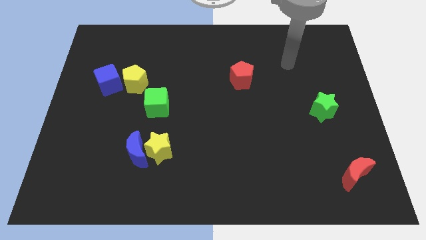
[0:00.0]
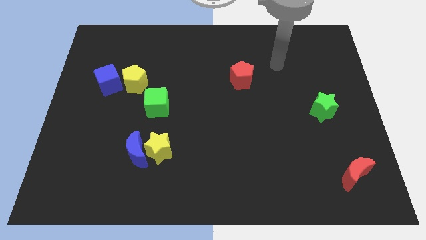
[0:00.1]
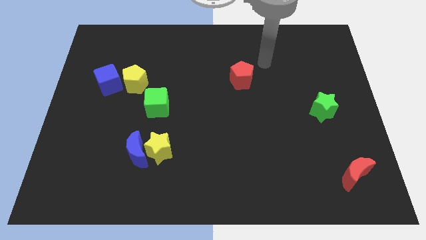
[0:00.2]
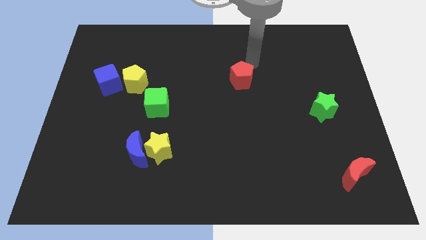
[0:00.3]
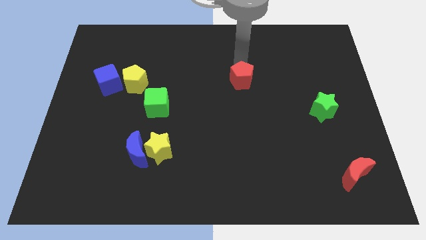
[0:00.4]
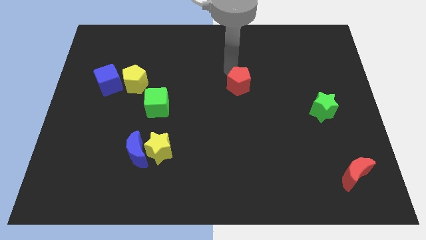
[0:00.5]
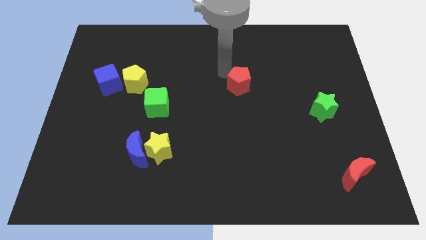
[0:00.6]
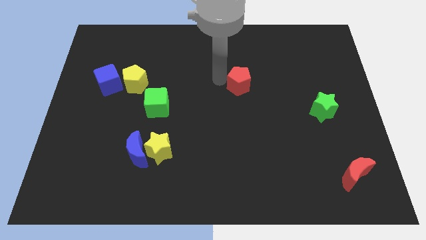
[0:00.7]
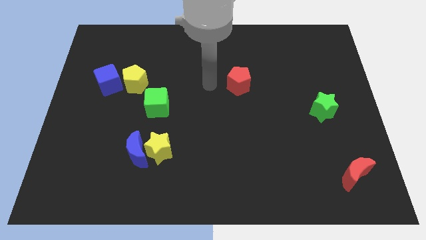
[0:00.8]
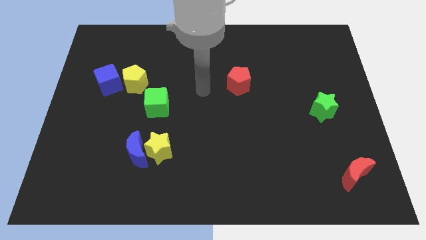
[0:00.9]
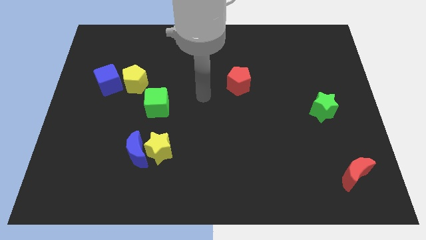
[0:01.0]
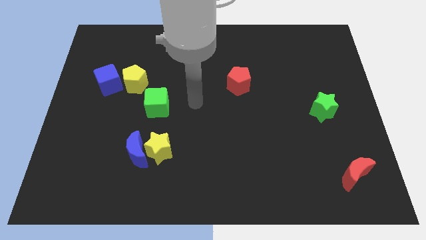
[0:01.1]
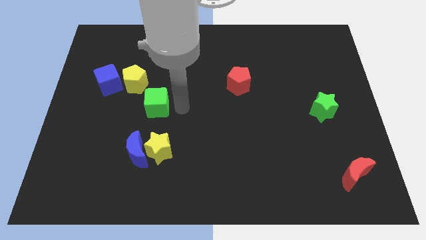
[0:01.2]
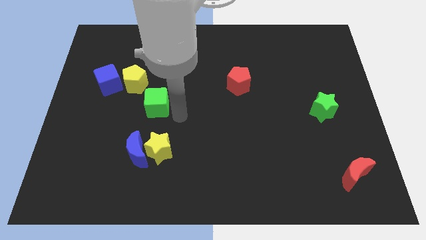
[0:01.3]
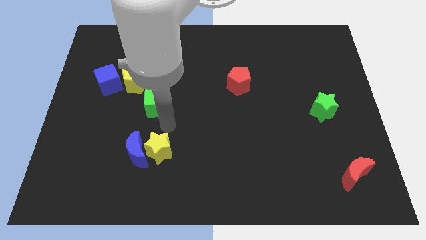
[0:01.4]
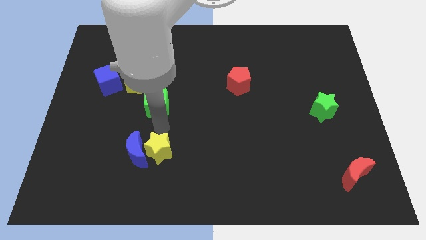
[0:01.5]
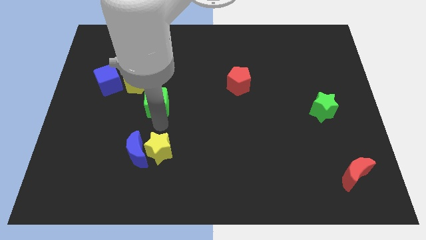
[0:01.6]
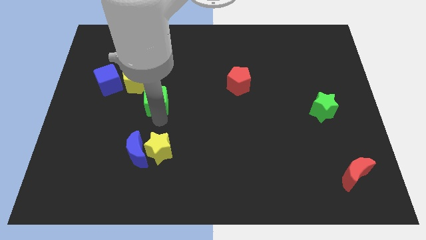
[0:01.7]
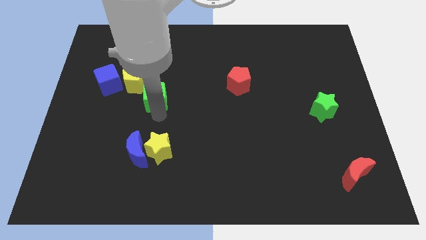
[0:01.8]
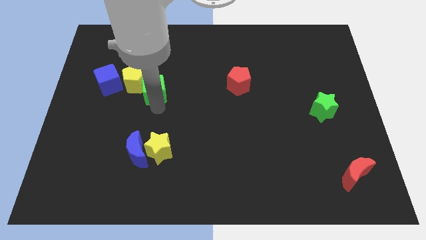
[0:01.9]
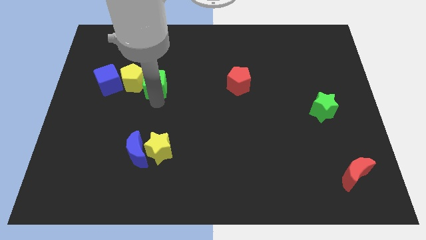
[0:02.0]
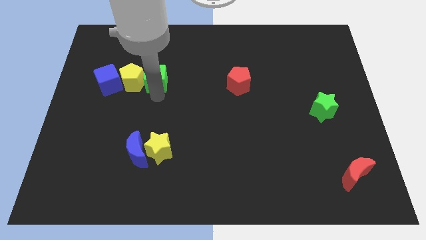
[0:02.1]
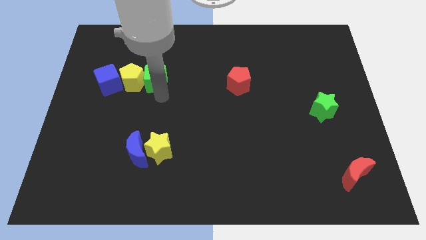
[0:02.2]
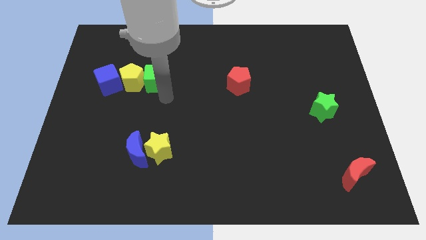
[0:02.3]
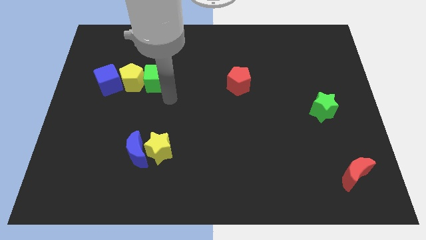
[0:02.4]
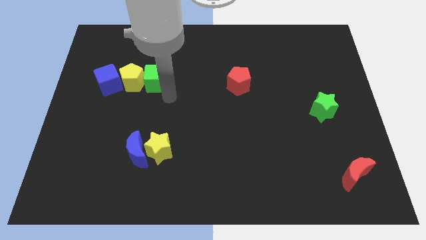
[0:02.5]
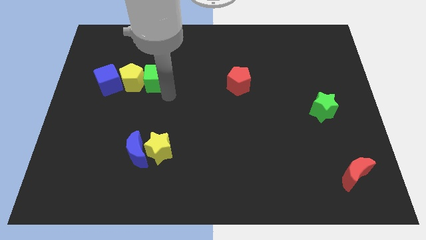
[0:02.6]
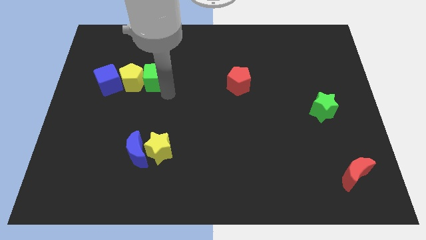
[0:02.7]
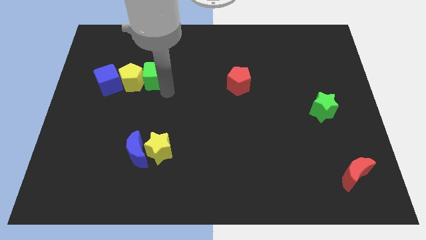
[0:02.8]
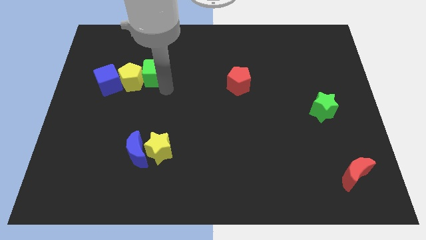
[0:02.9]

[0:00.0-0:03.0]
slightly move the green cube upwards and then left

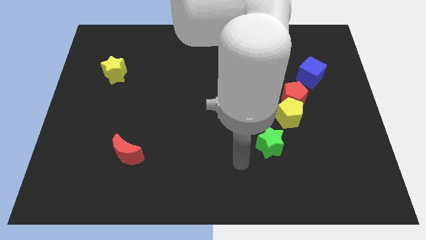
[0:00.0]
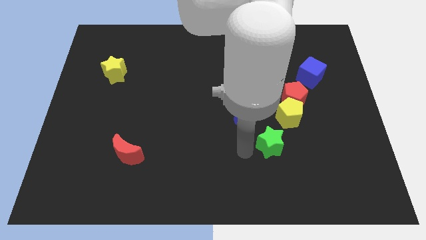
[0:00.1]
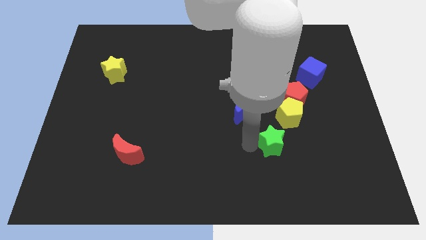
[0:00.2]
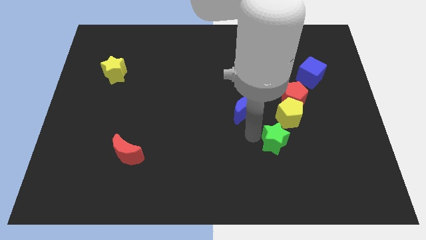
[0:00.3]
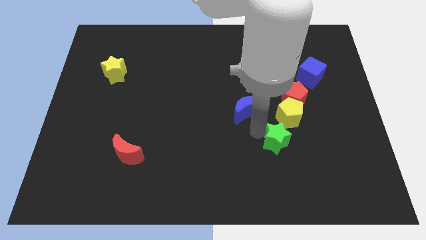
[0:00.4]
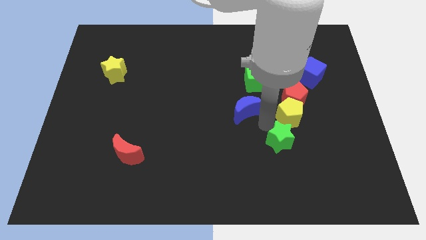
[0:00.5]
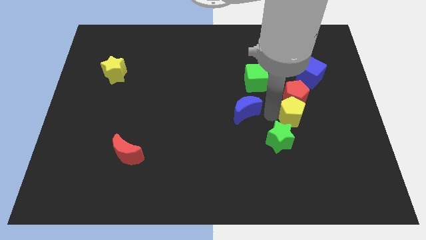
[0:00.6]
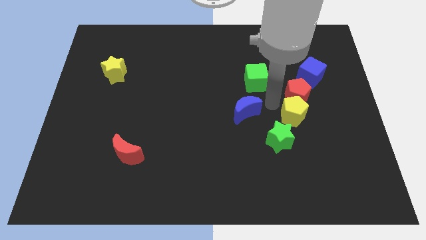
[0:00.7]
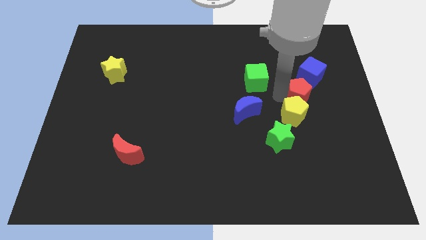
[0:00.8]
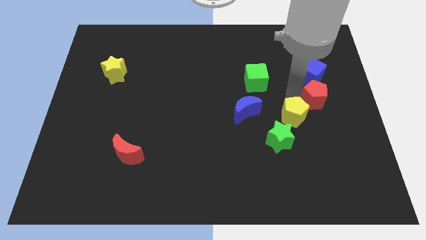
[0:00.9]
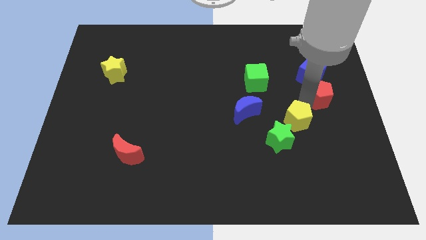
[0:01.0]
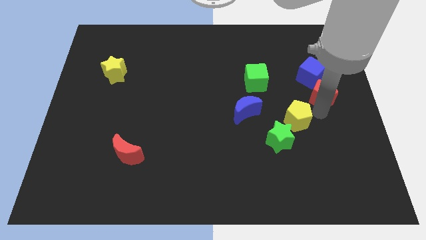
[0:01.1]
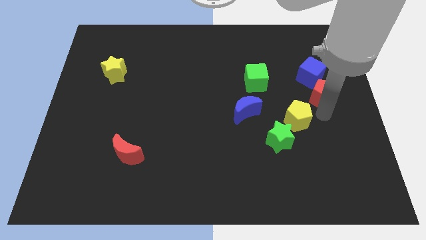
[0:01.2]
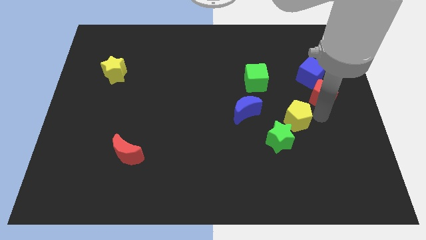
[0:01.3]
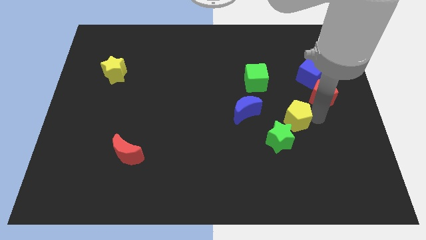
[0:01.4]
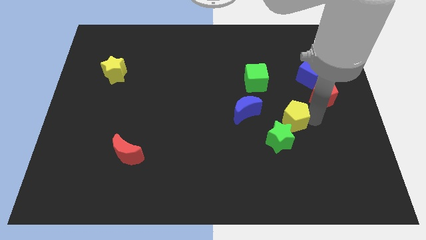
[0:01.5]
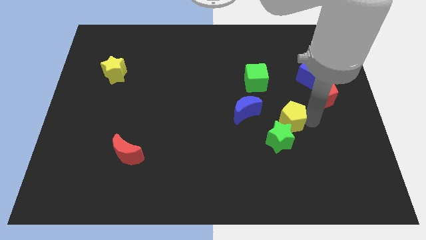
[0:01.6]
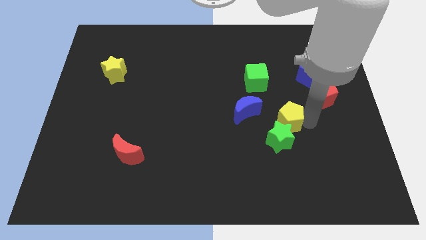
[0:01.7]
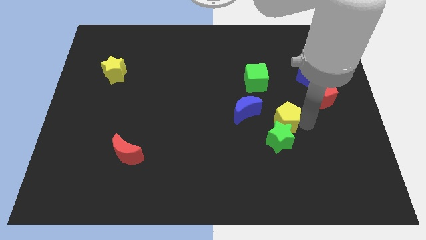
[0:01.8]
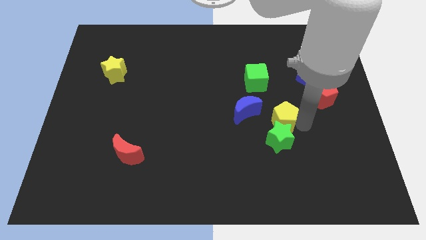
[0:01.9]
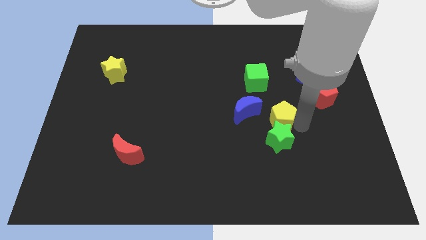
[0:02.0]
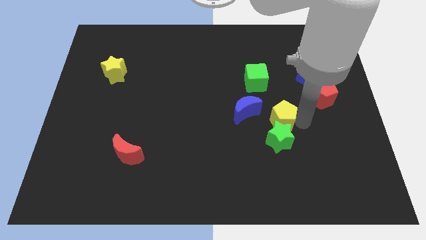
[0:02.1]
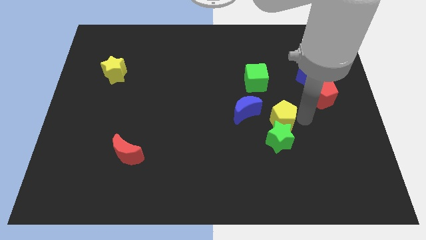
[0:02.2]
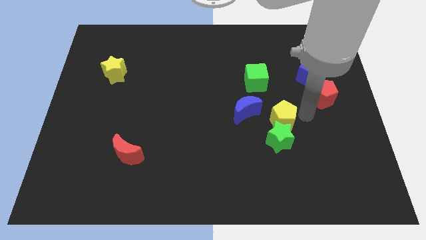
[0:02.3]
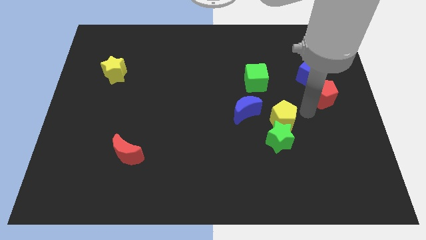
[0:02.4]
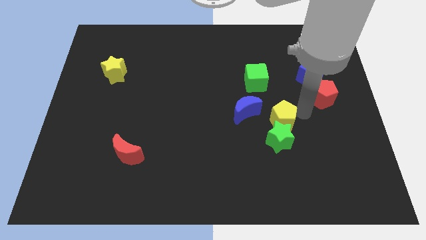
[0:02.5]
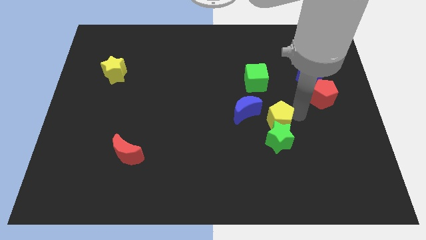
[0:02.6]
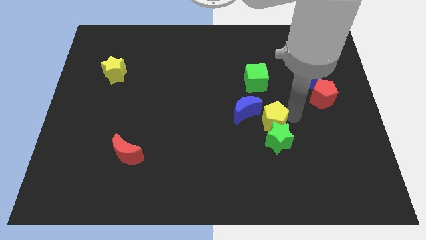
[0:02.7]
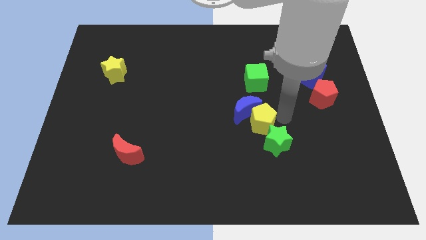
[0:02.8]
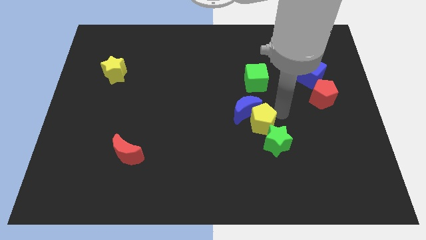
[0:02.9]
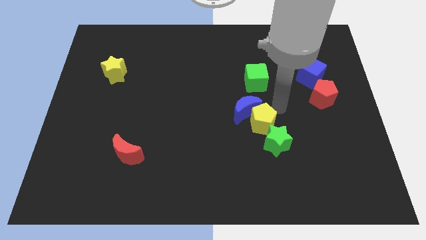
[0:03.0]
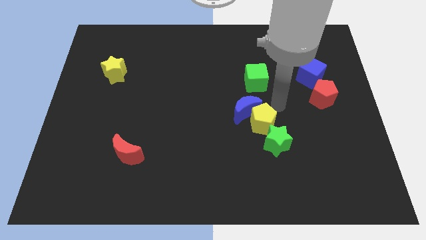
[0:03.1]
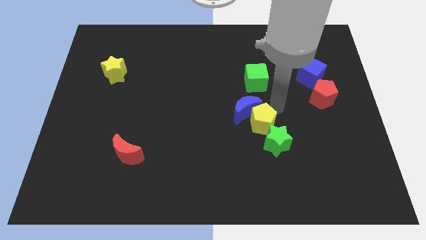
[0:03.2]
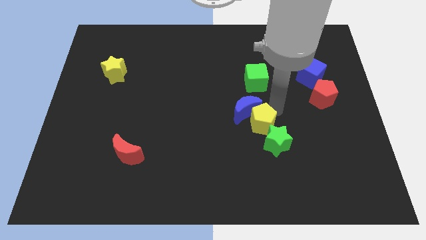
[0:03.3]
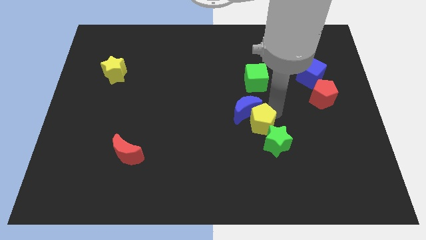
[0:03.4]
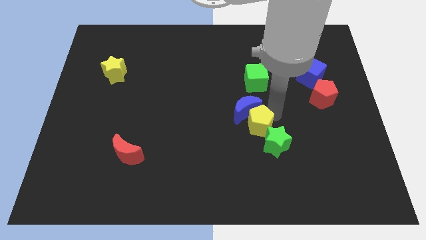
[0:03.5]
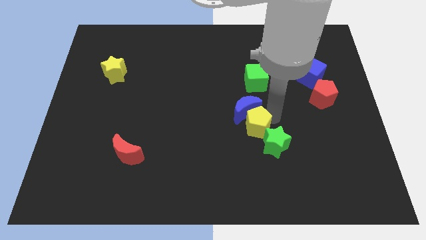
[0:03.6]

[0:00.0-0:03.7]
slightly push the yellow pentagon down and to the left

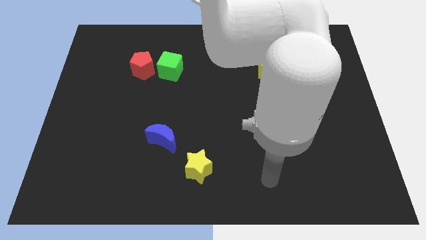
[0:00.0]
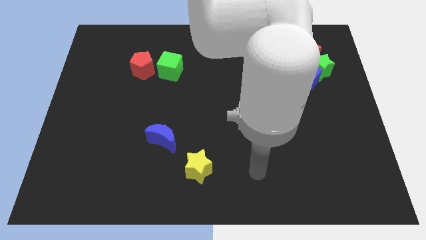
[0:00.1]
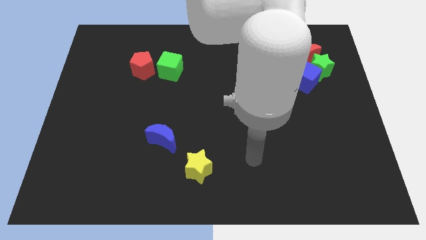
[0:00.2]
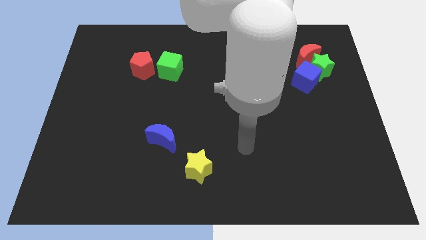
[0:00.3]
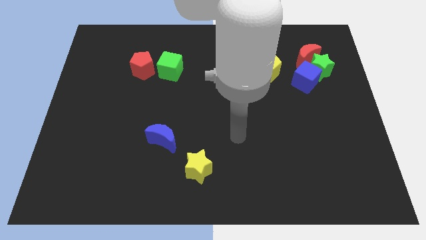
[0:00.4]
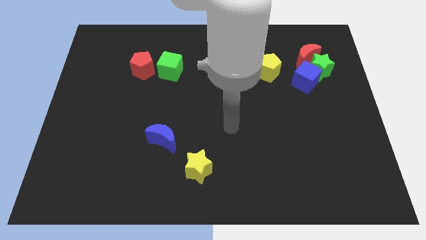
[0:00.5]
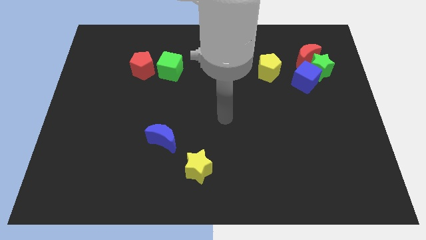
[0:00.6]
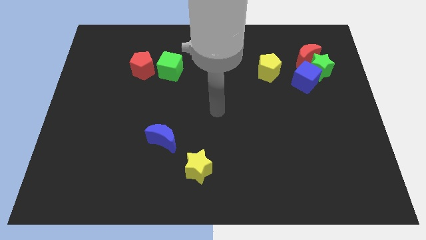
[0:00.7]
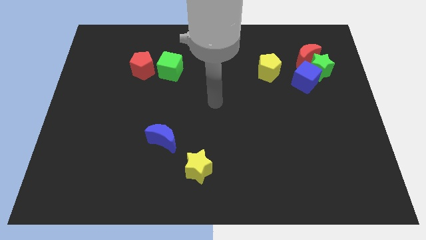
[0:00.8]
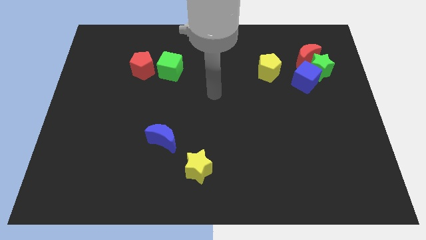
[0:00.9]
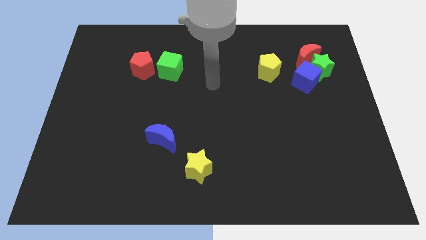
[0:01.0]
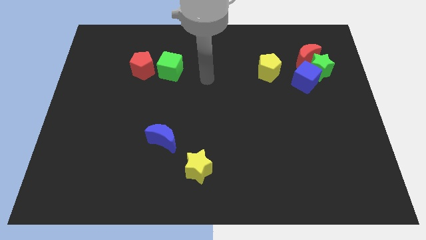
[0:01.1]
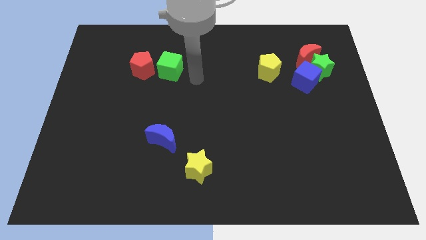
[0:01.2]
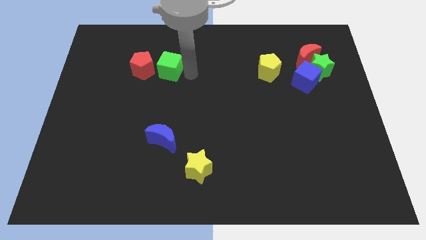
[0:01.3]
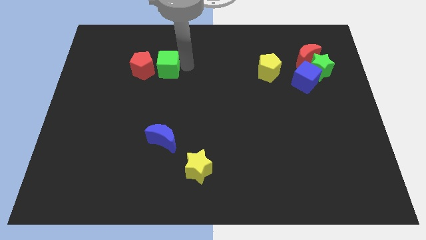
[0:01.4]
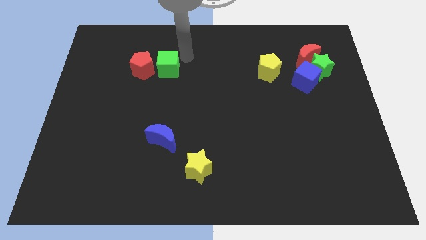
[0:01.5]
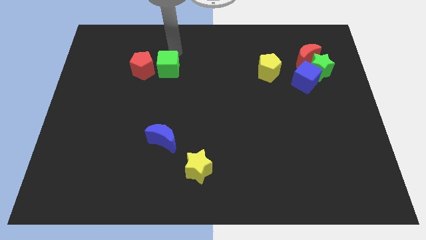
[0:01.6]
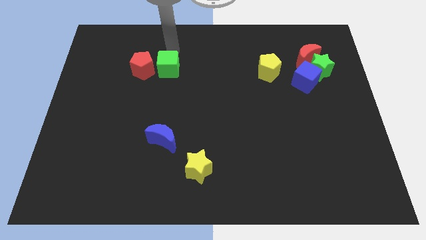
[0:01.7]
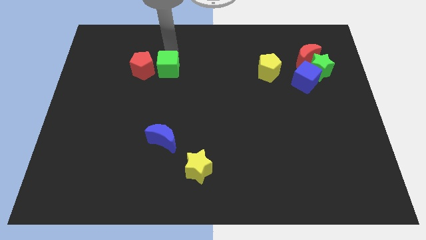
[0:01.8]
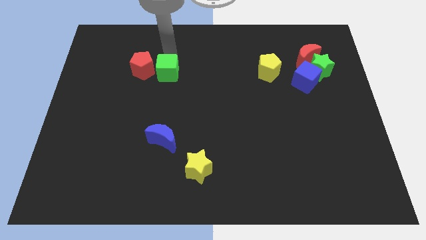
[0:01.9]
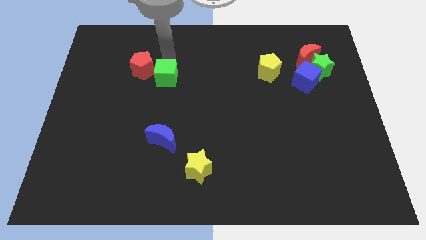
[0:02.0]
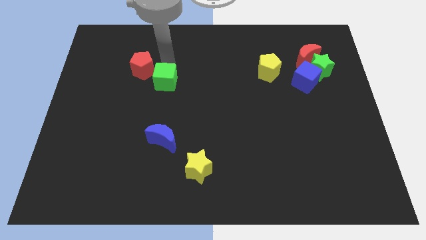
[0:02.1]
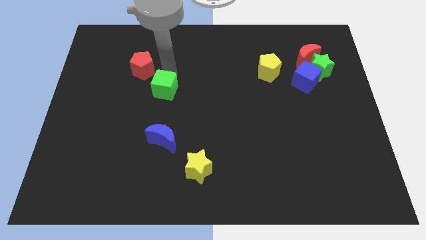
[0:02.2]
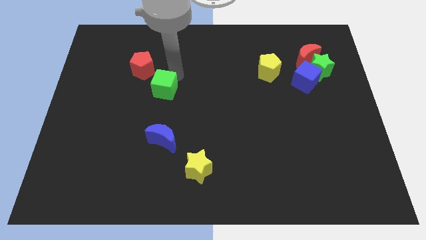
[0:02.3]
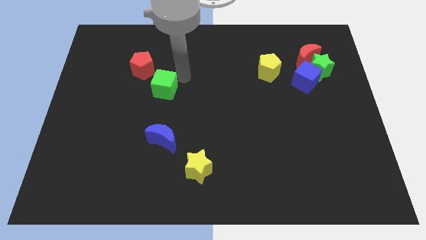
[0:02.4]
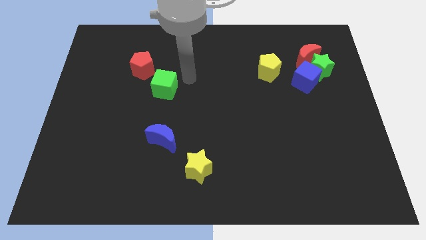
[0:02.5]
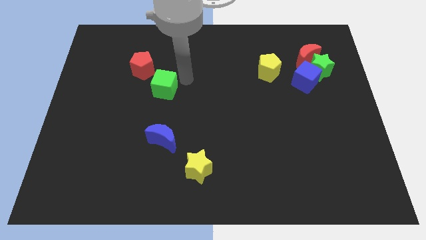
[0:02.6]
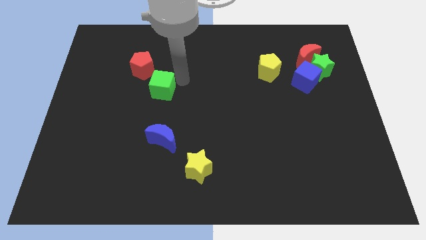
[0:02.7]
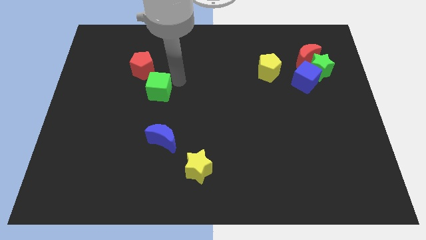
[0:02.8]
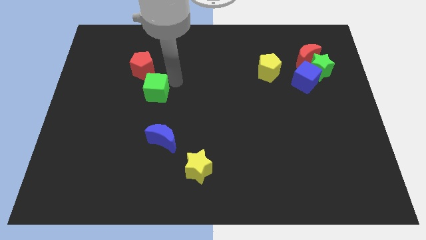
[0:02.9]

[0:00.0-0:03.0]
move the green cube diagonally down and left a little bit
